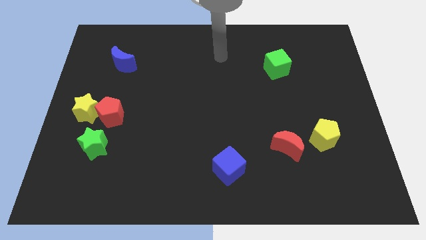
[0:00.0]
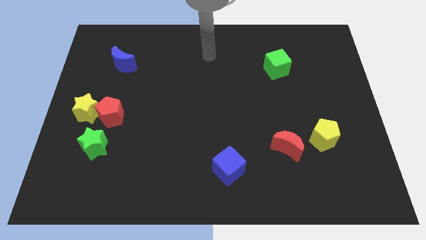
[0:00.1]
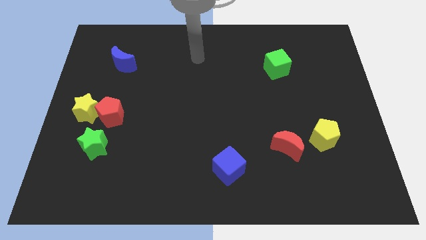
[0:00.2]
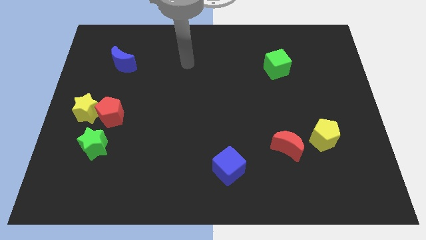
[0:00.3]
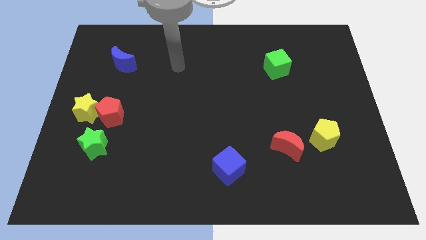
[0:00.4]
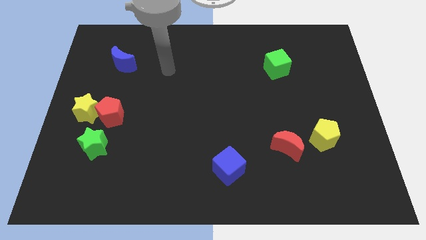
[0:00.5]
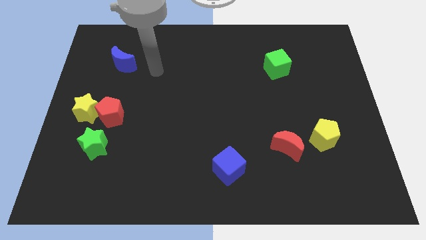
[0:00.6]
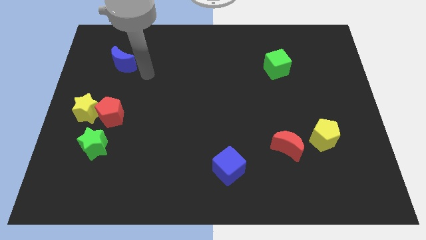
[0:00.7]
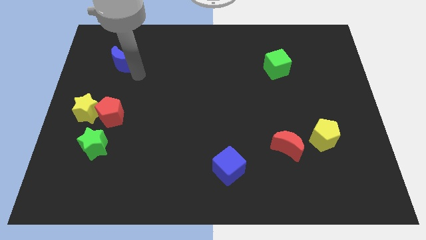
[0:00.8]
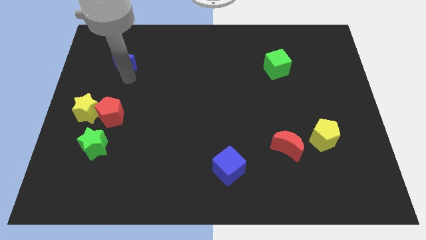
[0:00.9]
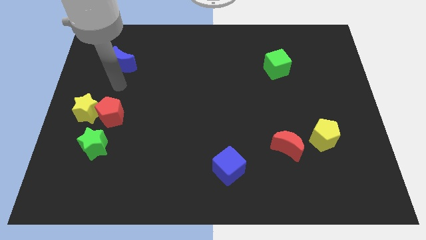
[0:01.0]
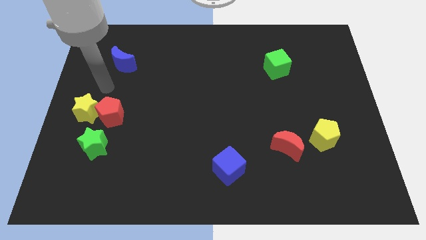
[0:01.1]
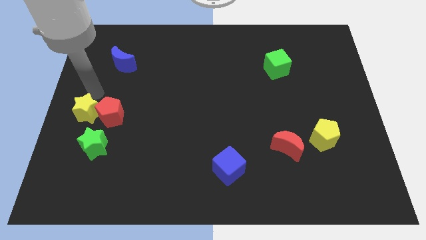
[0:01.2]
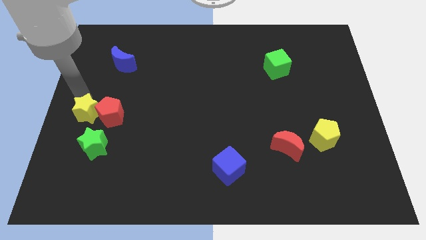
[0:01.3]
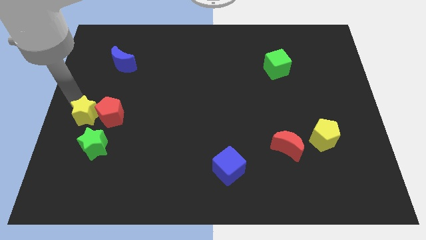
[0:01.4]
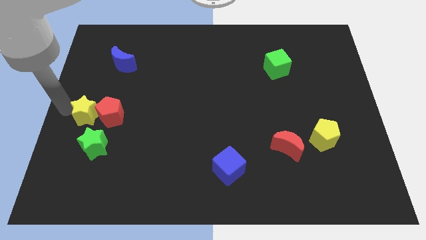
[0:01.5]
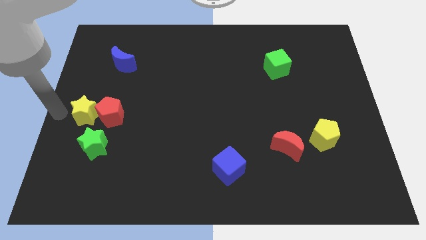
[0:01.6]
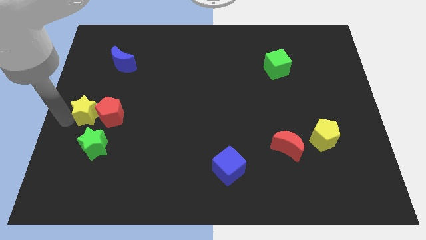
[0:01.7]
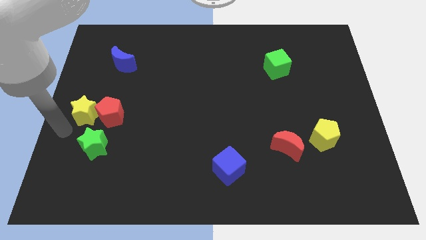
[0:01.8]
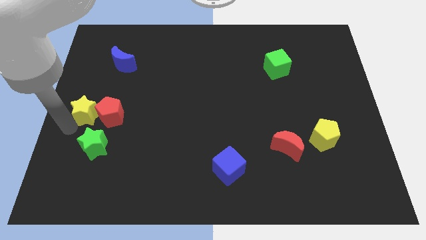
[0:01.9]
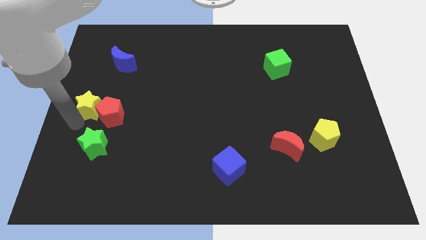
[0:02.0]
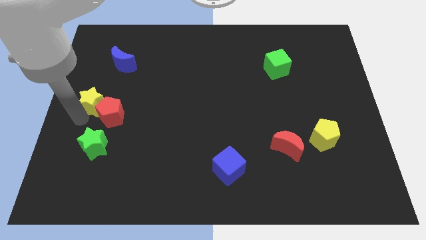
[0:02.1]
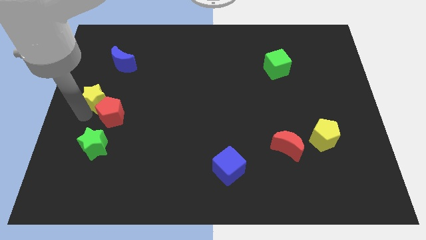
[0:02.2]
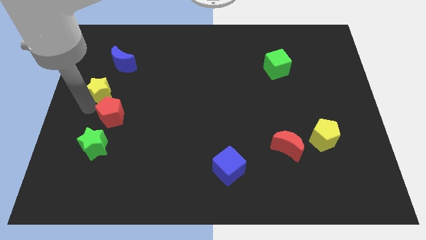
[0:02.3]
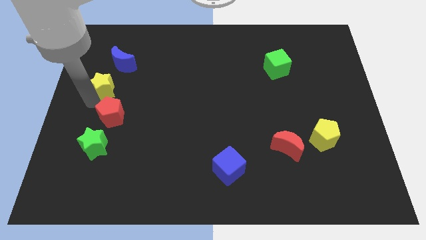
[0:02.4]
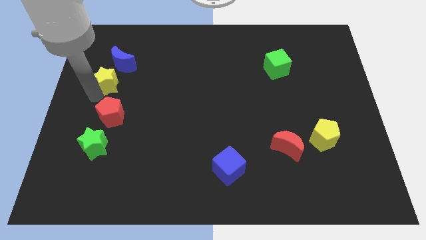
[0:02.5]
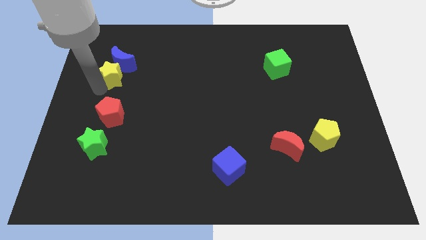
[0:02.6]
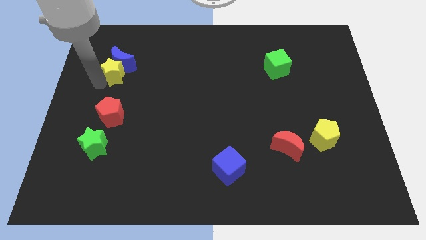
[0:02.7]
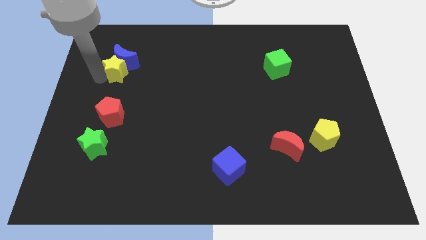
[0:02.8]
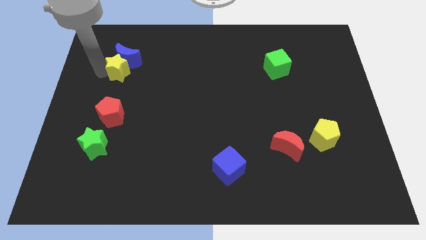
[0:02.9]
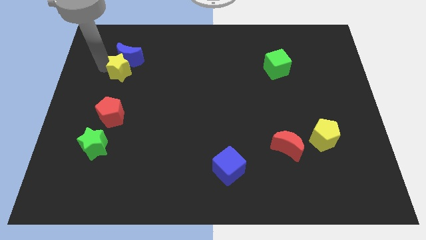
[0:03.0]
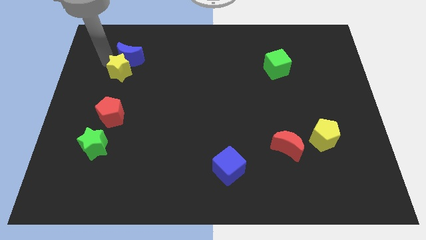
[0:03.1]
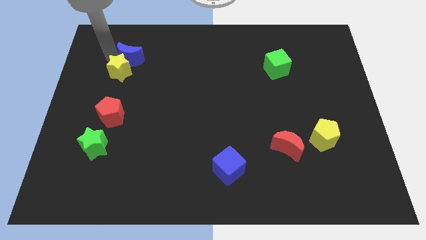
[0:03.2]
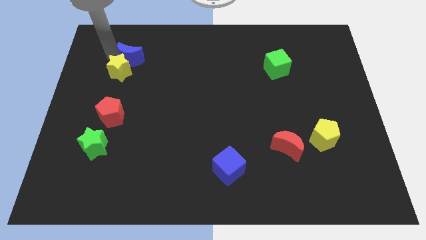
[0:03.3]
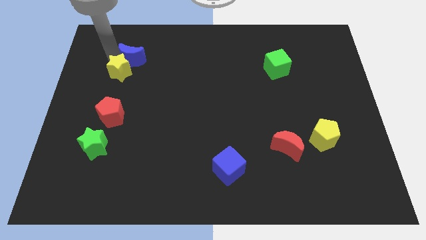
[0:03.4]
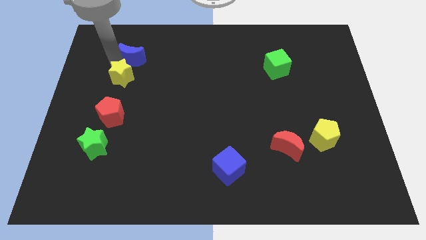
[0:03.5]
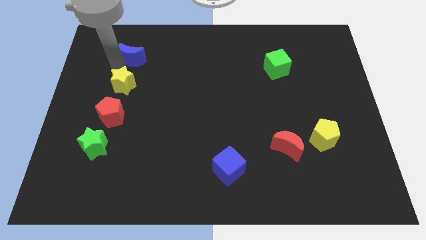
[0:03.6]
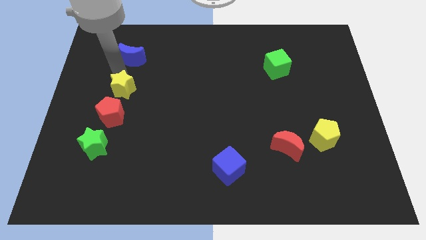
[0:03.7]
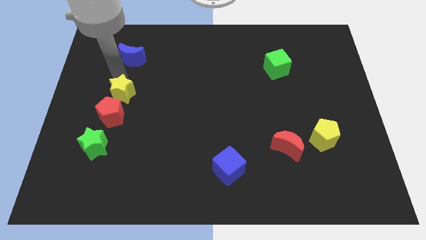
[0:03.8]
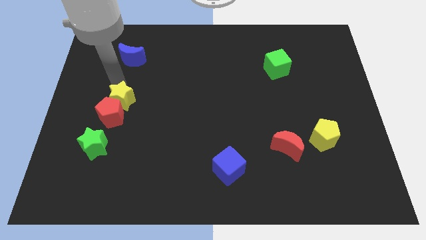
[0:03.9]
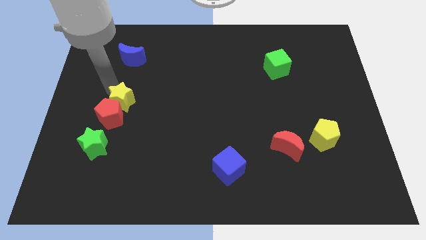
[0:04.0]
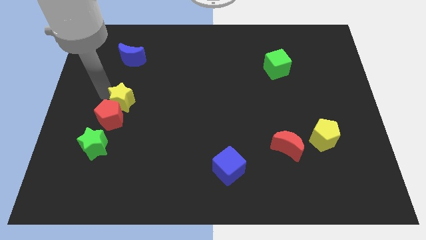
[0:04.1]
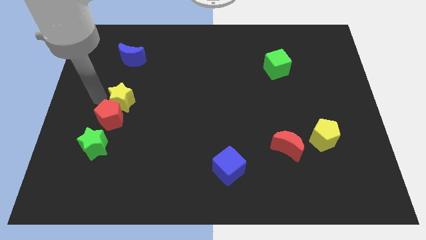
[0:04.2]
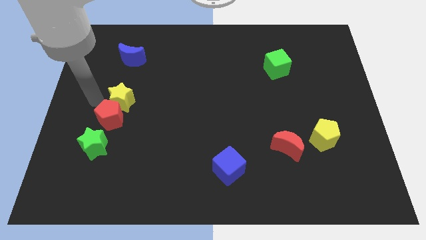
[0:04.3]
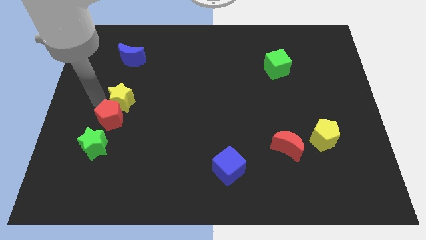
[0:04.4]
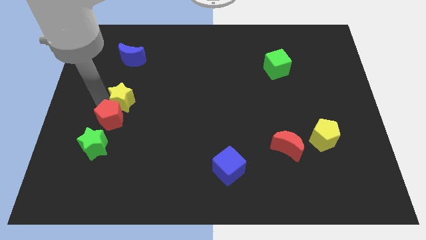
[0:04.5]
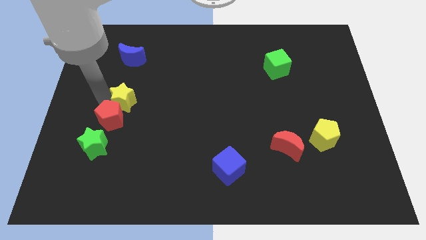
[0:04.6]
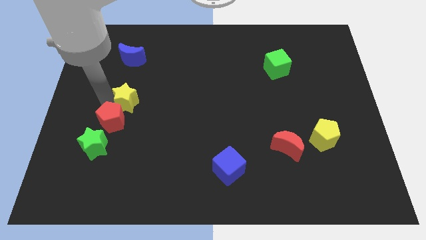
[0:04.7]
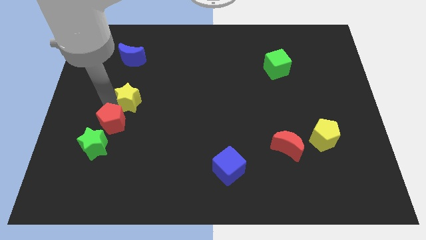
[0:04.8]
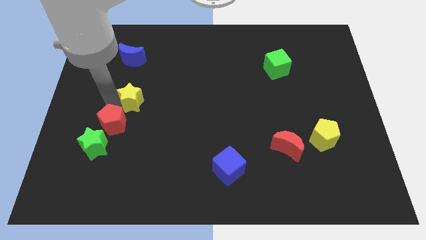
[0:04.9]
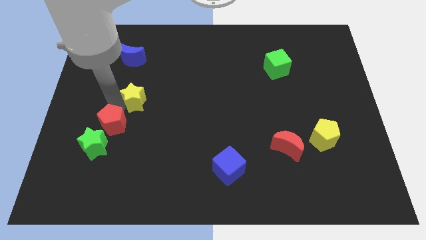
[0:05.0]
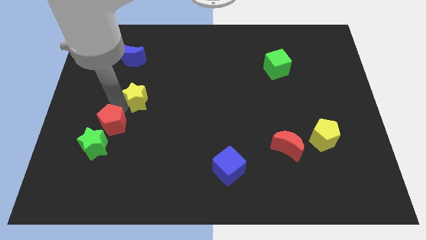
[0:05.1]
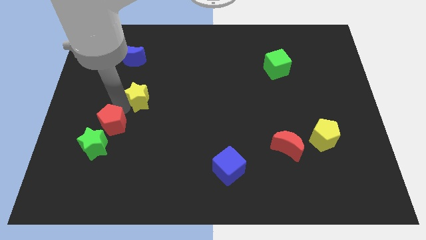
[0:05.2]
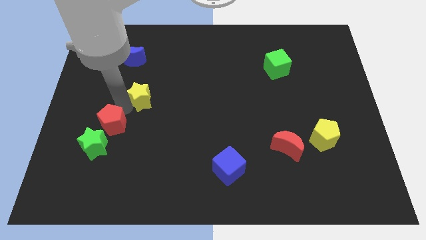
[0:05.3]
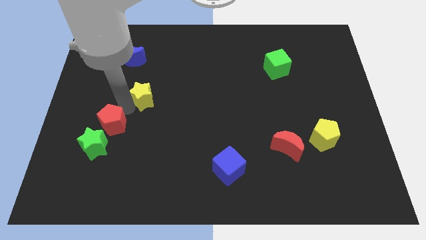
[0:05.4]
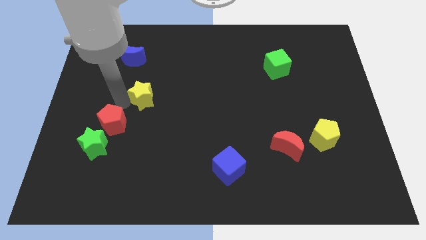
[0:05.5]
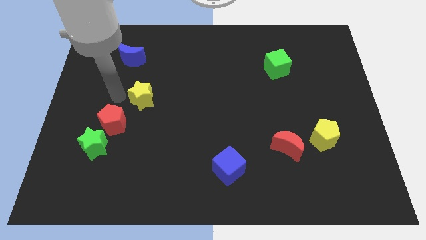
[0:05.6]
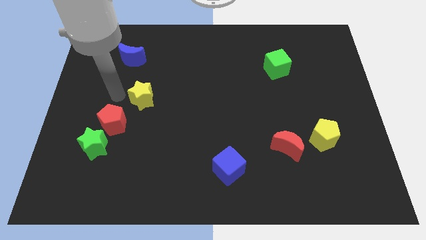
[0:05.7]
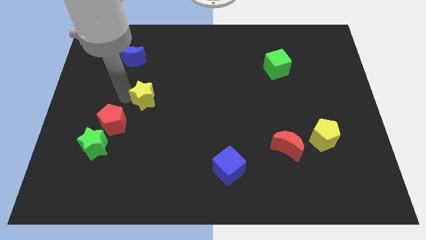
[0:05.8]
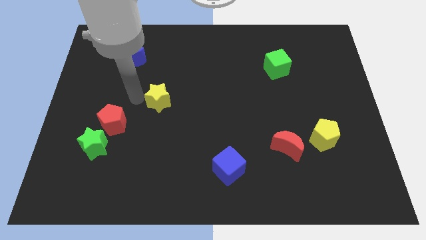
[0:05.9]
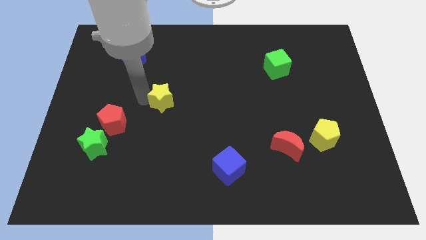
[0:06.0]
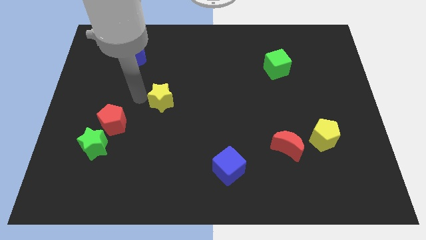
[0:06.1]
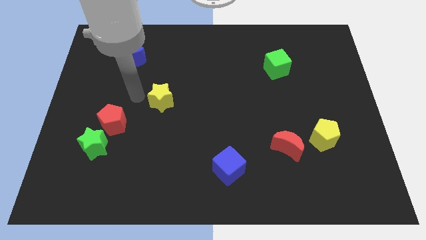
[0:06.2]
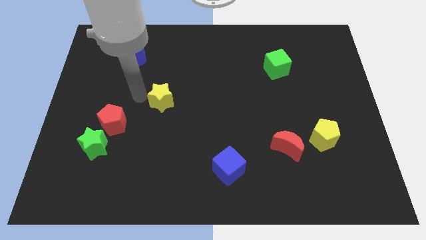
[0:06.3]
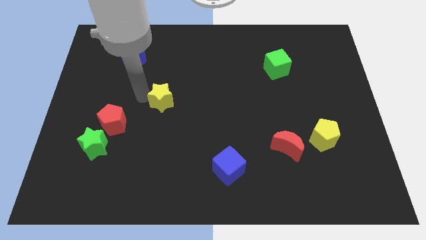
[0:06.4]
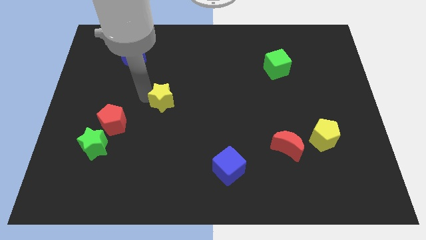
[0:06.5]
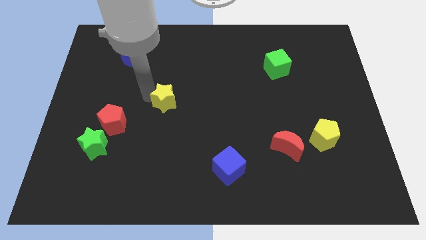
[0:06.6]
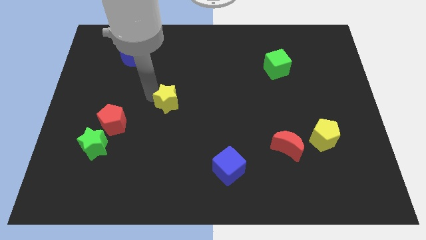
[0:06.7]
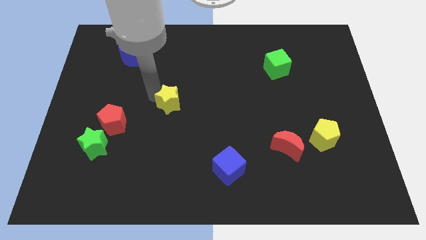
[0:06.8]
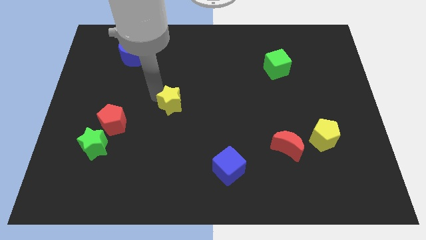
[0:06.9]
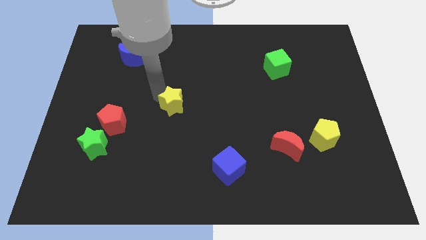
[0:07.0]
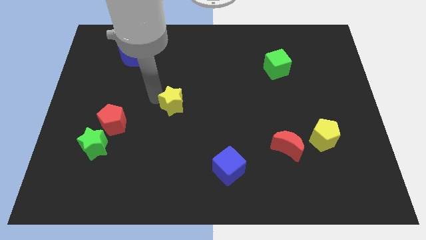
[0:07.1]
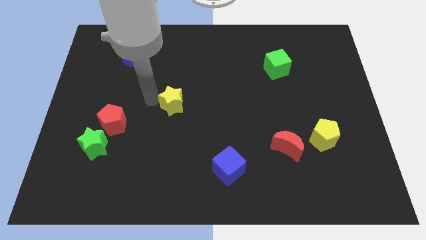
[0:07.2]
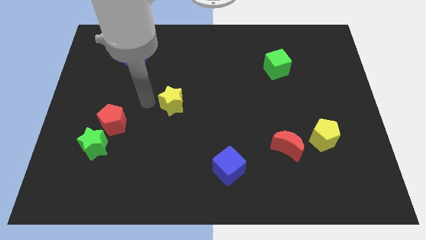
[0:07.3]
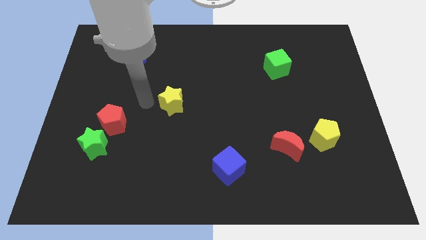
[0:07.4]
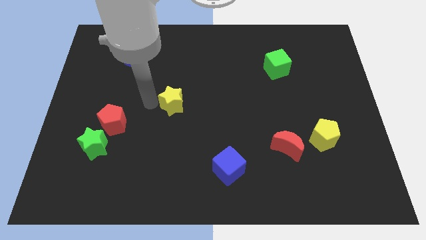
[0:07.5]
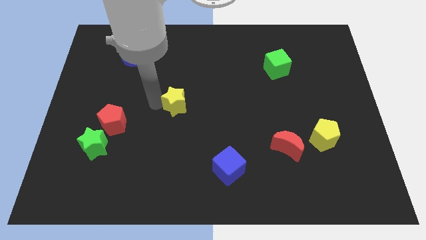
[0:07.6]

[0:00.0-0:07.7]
push the yellow star right
